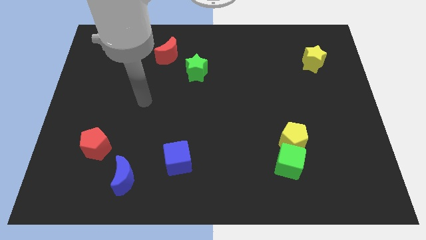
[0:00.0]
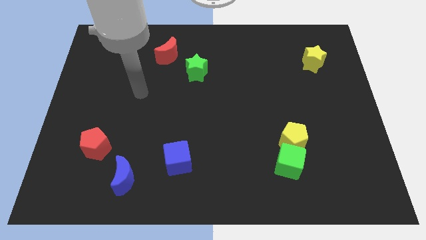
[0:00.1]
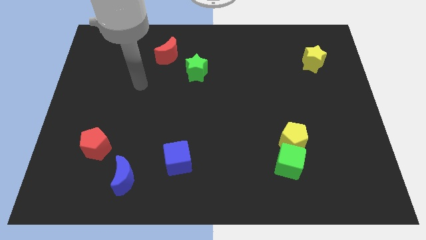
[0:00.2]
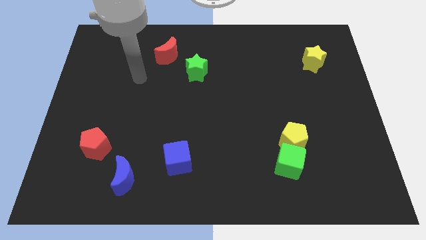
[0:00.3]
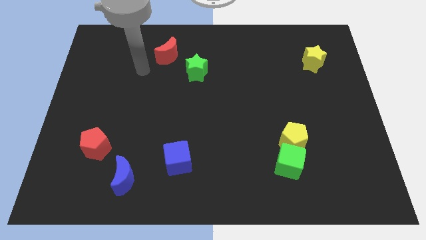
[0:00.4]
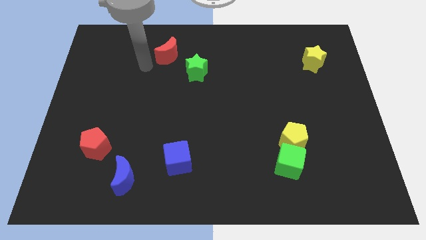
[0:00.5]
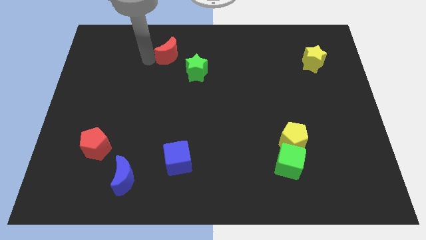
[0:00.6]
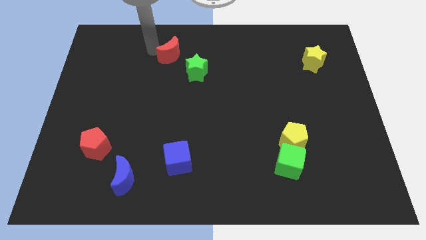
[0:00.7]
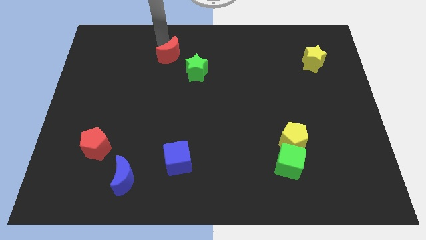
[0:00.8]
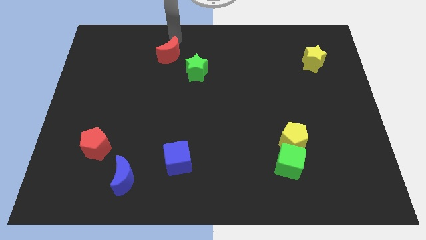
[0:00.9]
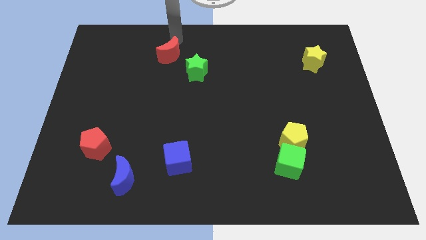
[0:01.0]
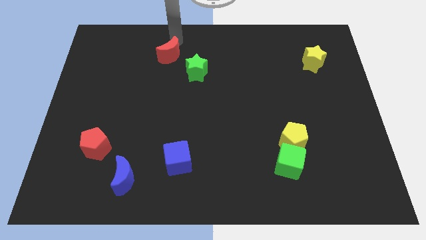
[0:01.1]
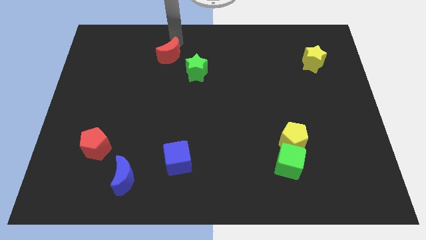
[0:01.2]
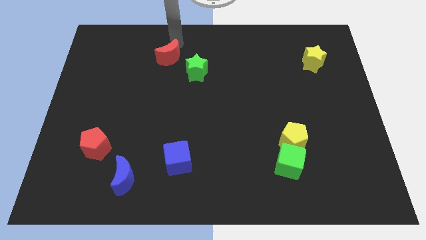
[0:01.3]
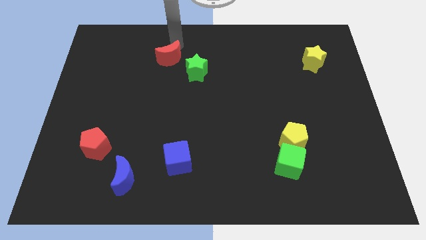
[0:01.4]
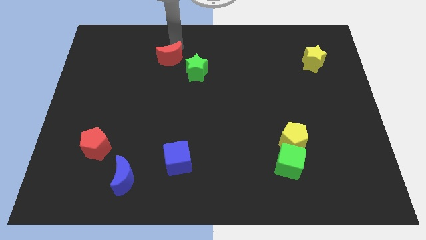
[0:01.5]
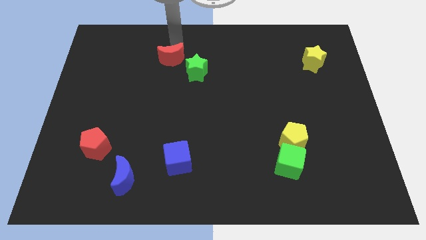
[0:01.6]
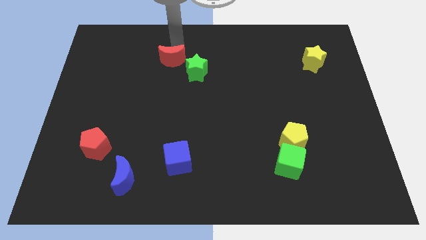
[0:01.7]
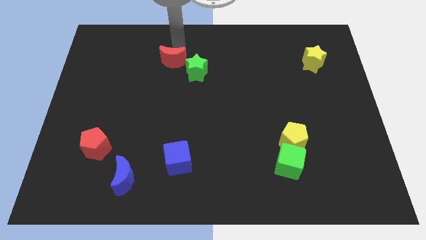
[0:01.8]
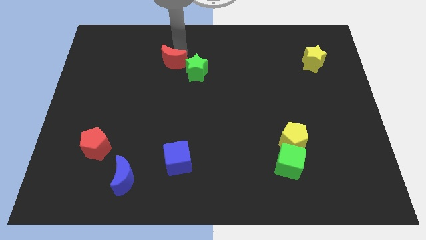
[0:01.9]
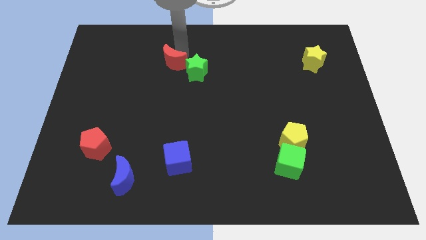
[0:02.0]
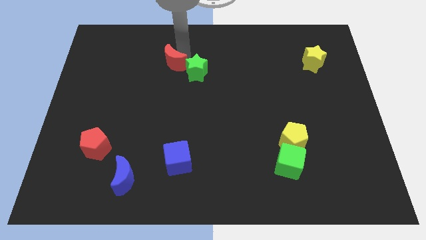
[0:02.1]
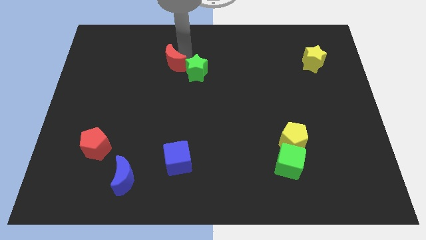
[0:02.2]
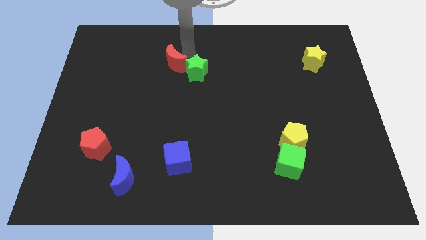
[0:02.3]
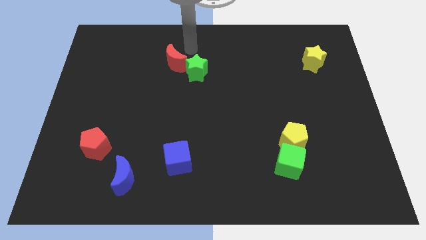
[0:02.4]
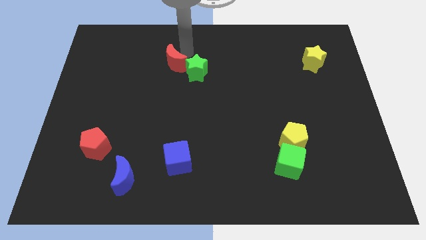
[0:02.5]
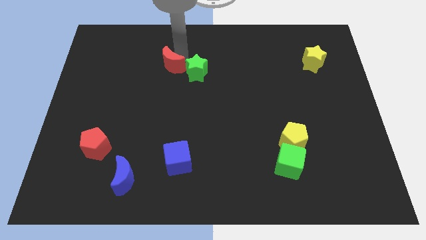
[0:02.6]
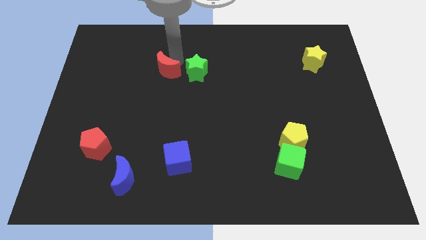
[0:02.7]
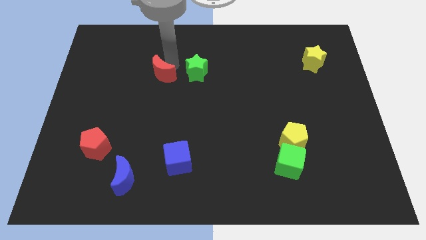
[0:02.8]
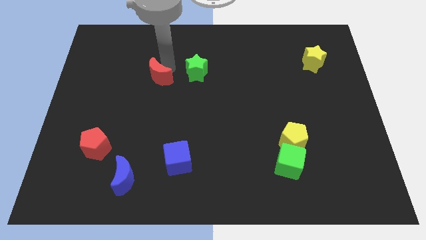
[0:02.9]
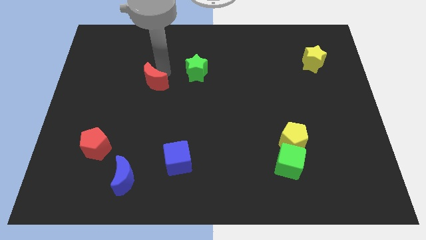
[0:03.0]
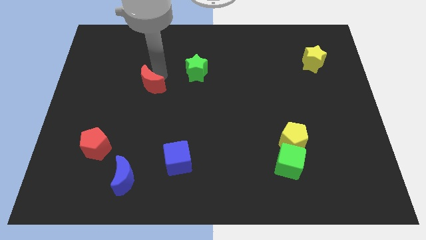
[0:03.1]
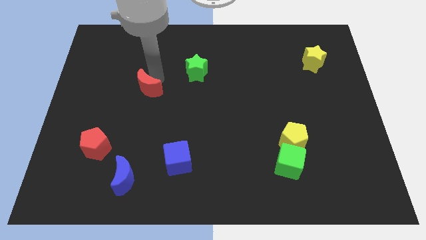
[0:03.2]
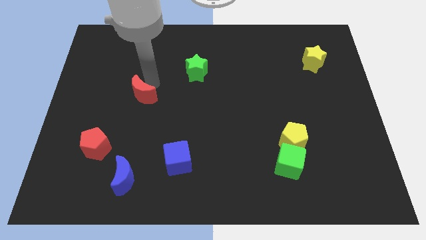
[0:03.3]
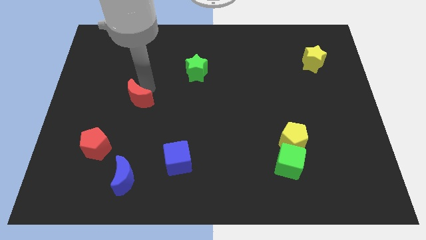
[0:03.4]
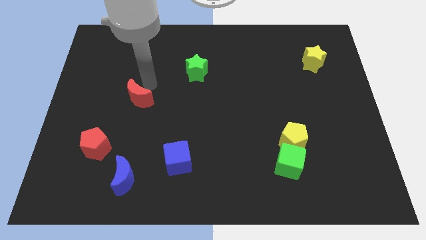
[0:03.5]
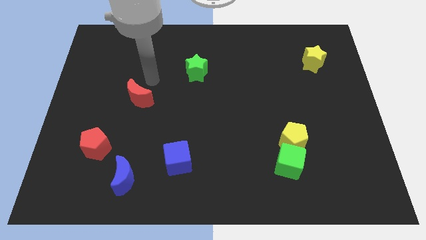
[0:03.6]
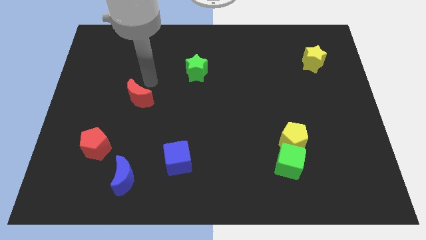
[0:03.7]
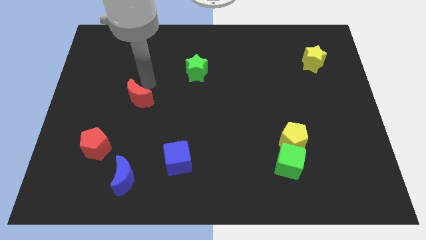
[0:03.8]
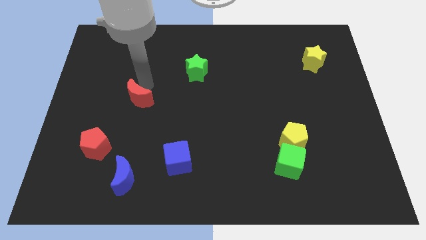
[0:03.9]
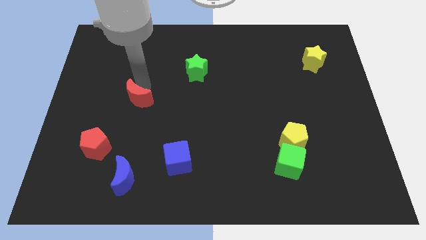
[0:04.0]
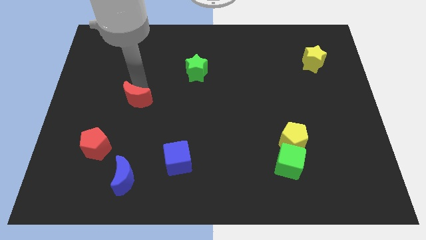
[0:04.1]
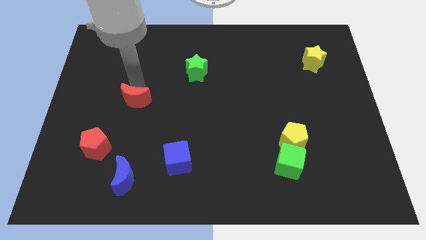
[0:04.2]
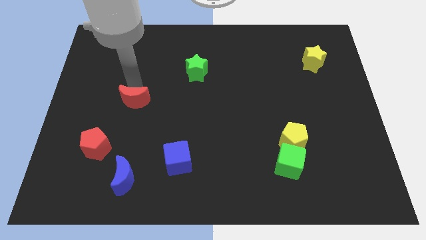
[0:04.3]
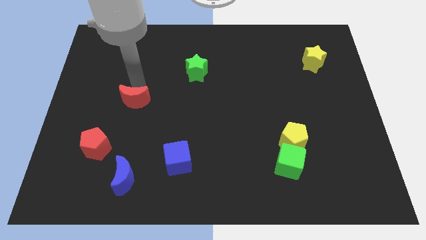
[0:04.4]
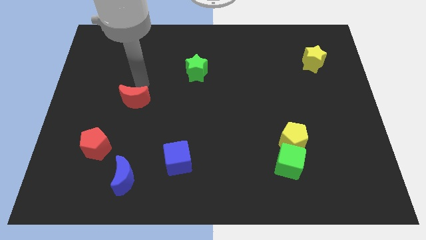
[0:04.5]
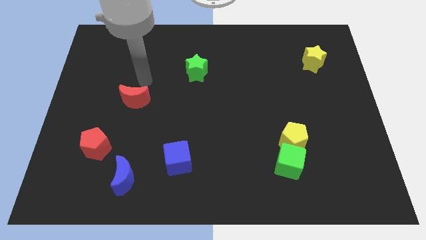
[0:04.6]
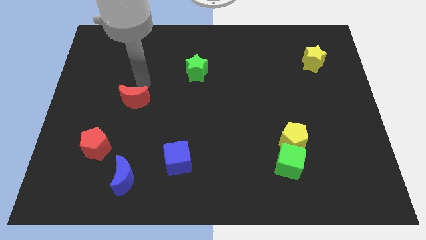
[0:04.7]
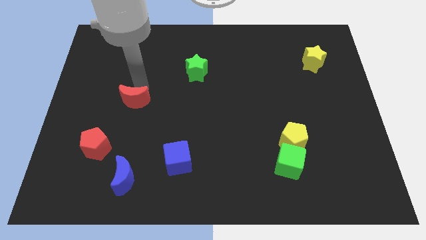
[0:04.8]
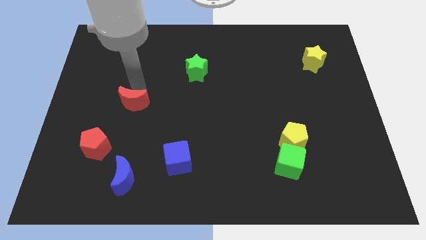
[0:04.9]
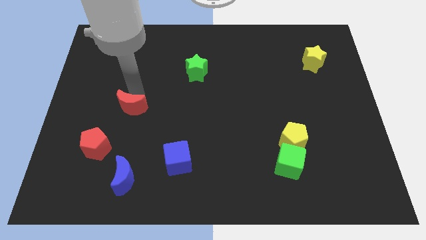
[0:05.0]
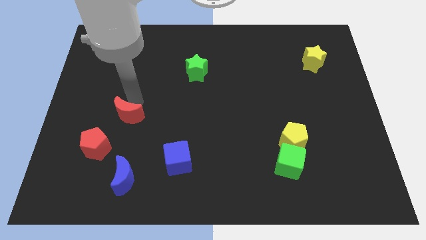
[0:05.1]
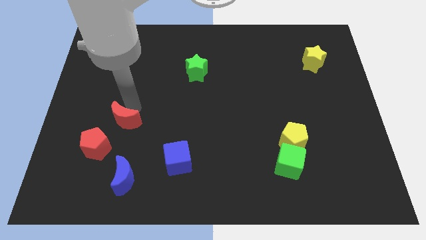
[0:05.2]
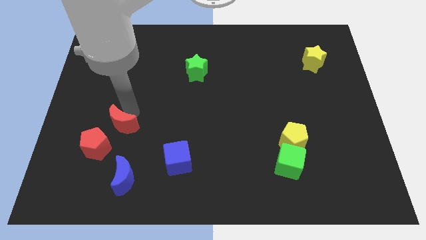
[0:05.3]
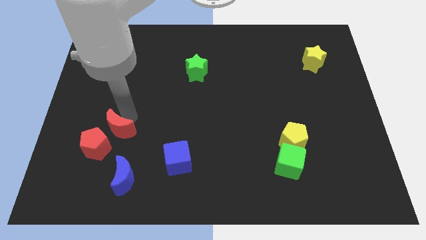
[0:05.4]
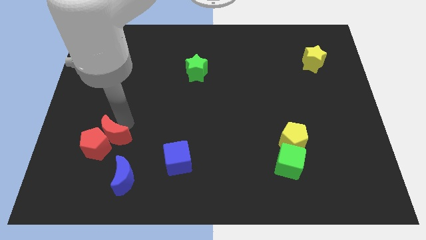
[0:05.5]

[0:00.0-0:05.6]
slide the red moon towards the red pentagon

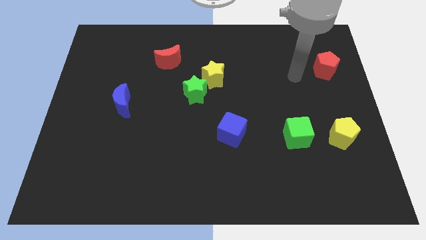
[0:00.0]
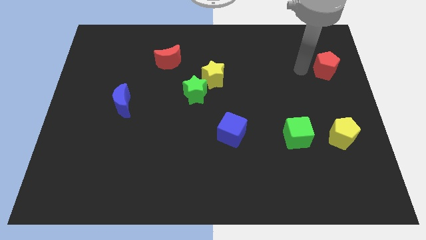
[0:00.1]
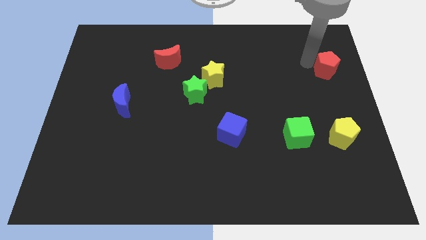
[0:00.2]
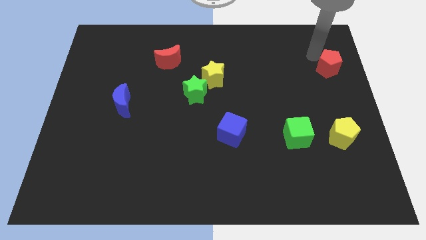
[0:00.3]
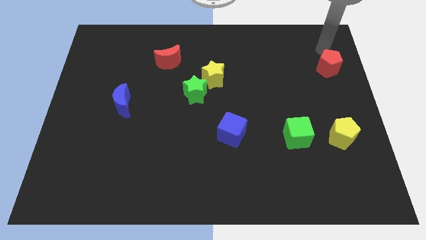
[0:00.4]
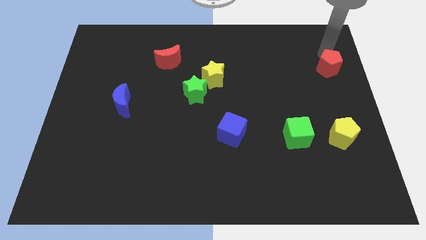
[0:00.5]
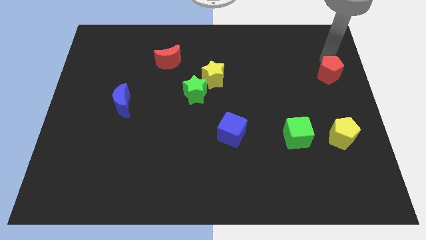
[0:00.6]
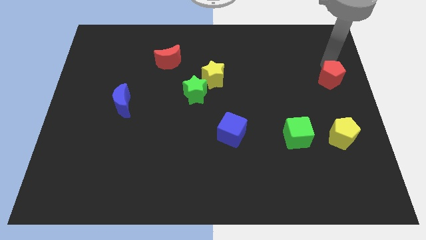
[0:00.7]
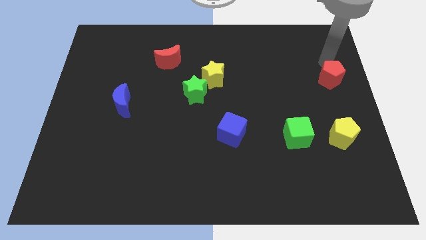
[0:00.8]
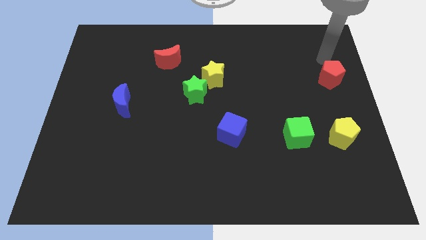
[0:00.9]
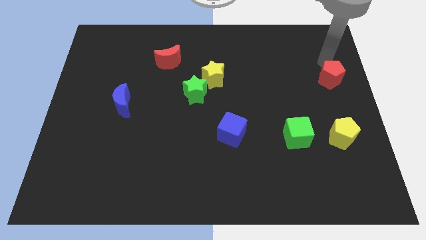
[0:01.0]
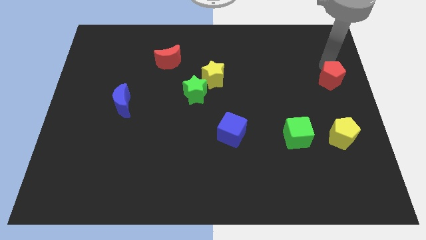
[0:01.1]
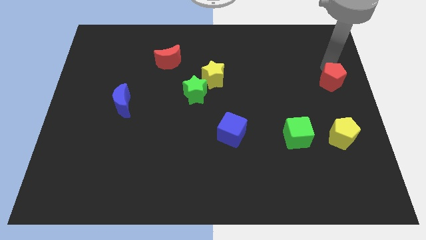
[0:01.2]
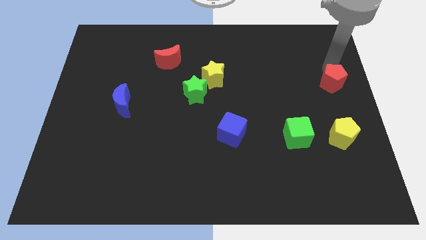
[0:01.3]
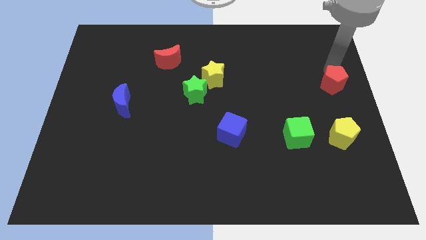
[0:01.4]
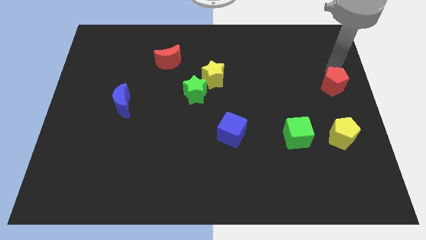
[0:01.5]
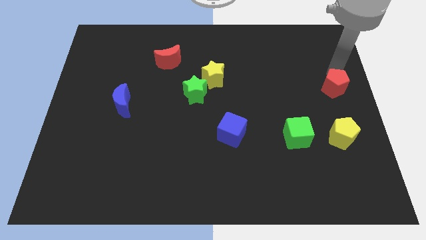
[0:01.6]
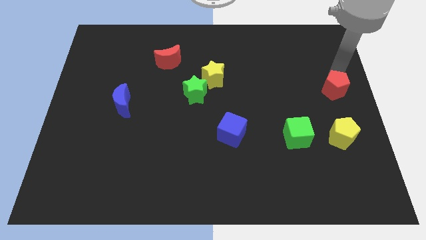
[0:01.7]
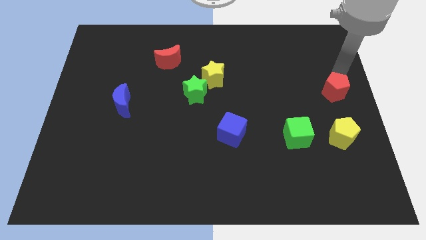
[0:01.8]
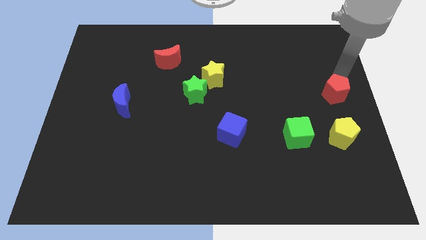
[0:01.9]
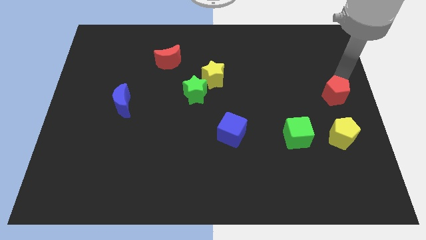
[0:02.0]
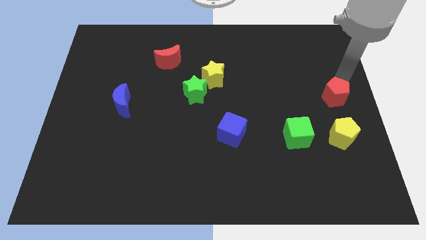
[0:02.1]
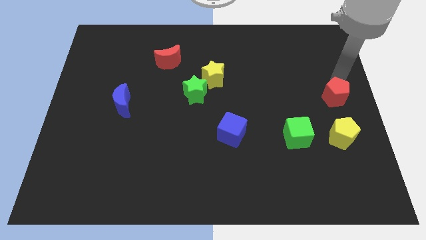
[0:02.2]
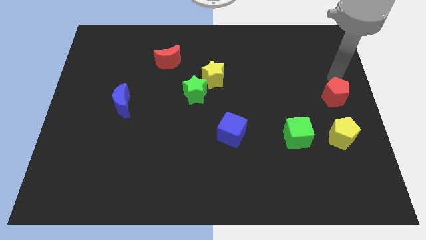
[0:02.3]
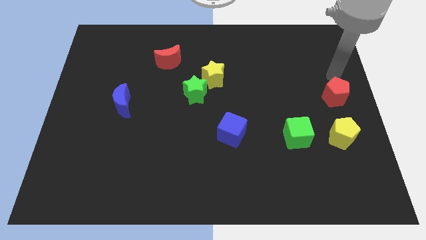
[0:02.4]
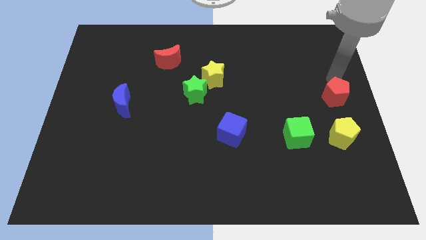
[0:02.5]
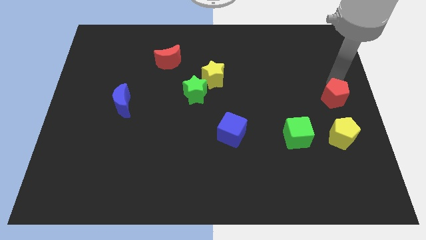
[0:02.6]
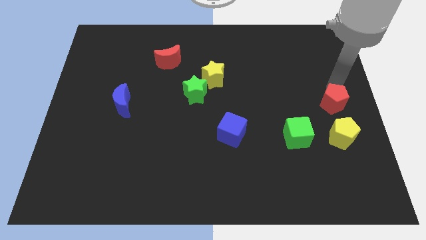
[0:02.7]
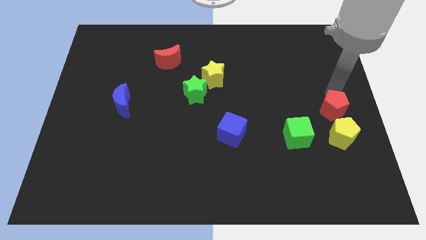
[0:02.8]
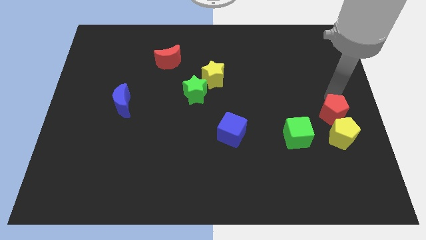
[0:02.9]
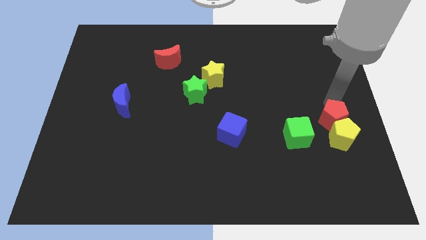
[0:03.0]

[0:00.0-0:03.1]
put the red pentagon towards the yellow pentagon
